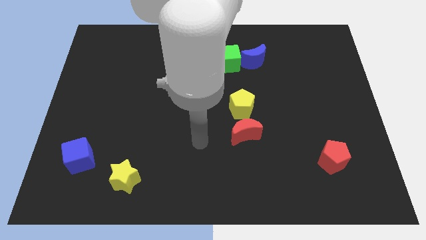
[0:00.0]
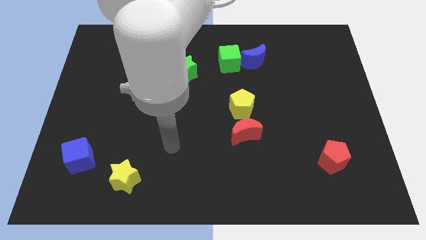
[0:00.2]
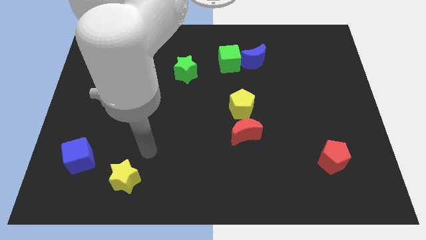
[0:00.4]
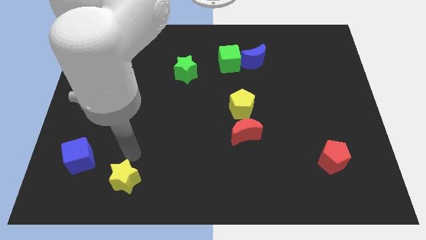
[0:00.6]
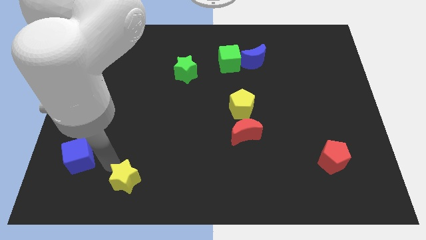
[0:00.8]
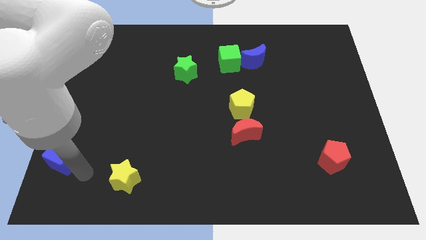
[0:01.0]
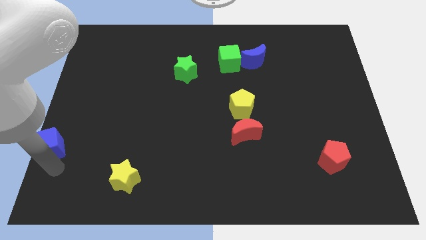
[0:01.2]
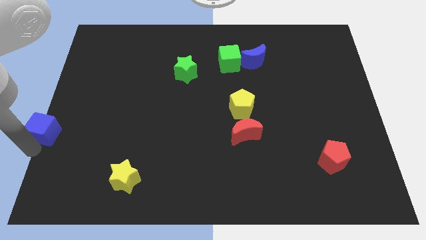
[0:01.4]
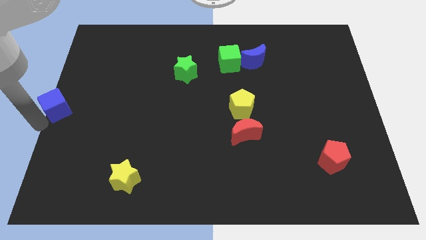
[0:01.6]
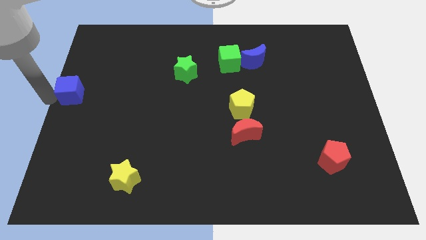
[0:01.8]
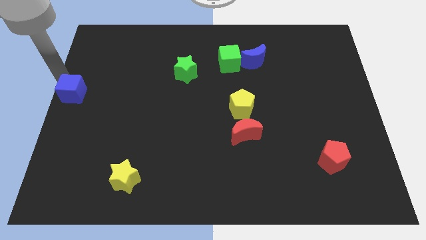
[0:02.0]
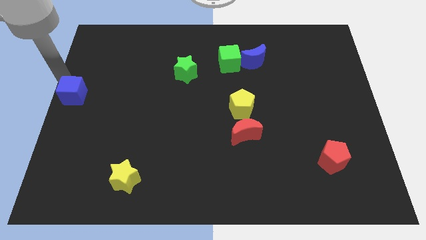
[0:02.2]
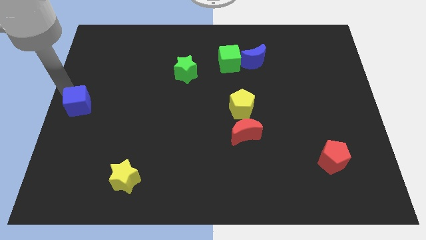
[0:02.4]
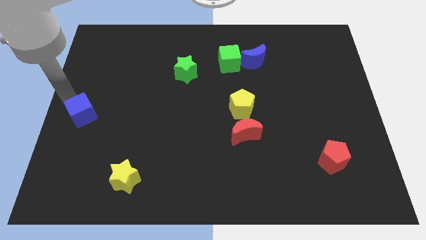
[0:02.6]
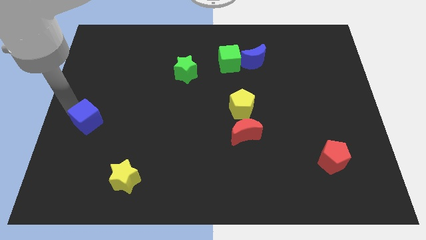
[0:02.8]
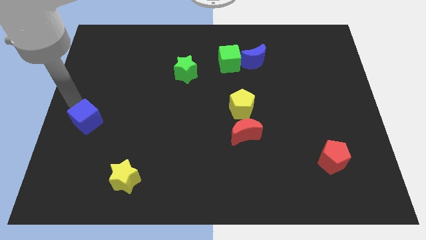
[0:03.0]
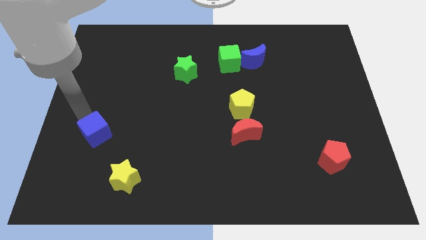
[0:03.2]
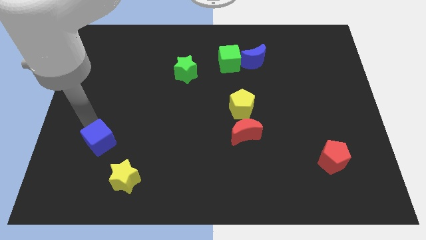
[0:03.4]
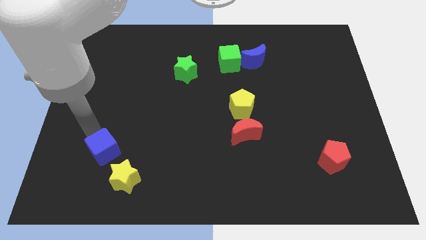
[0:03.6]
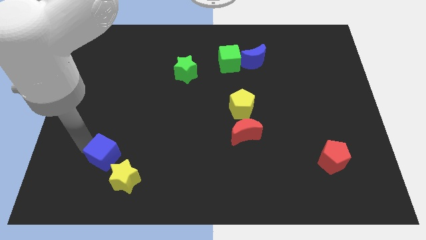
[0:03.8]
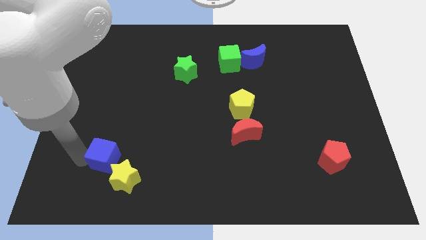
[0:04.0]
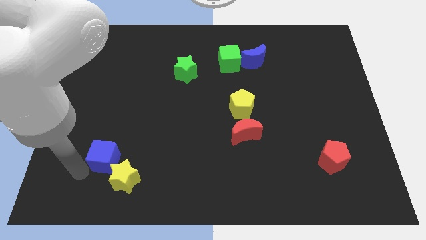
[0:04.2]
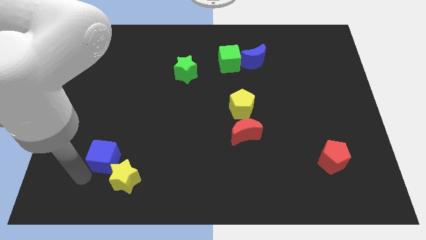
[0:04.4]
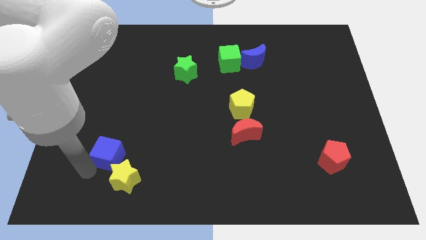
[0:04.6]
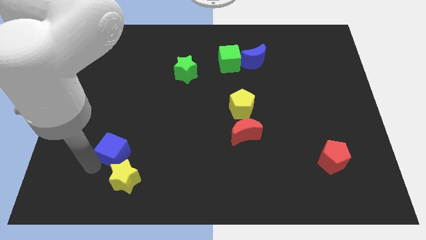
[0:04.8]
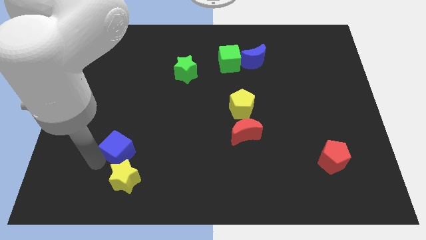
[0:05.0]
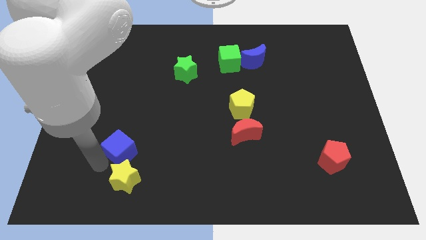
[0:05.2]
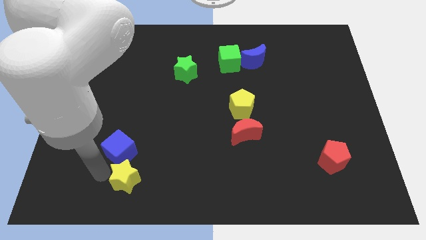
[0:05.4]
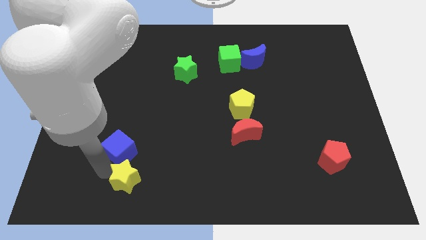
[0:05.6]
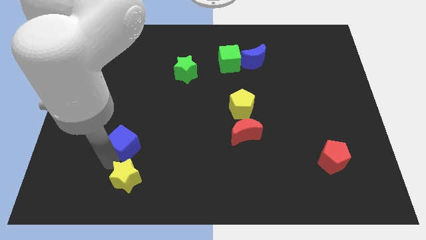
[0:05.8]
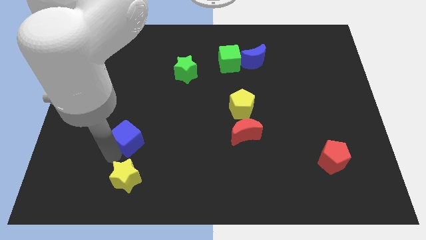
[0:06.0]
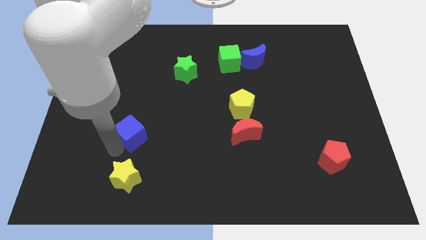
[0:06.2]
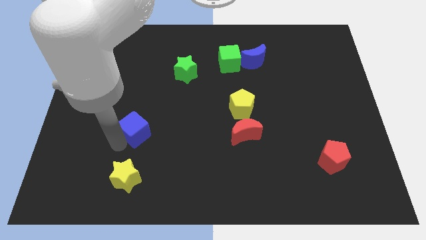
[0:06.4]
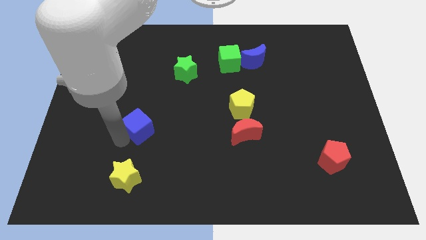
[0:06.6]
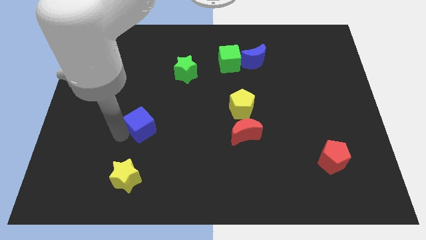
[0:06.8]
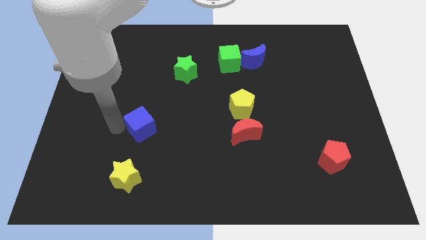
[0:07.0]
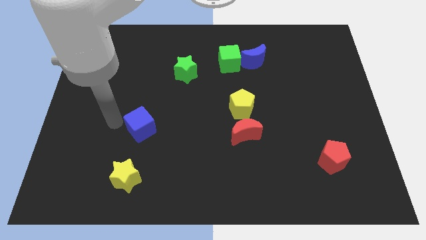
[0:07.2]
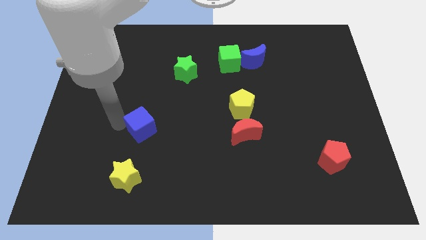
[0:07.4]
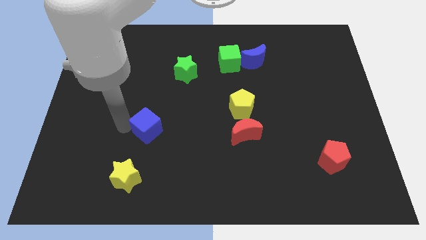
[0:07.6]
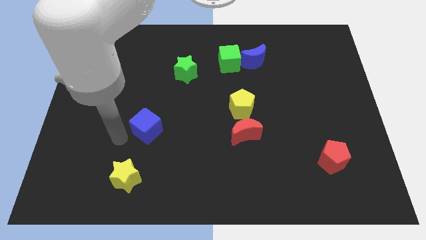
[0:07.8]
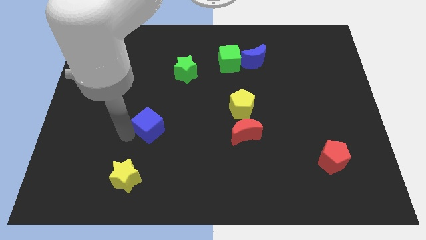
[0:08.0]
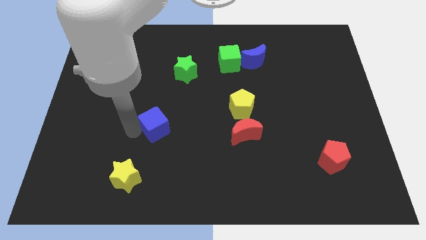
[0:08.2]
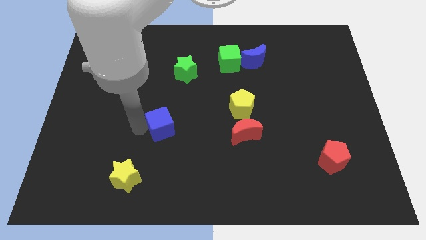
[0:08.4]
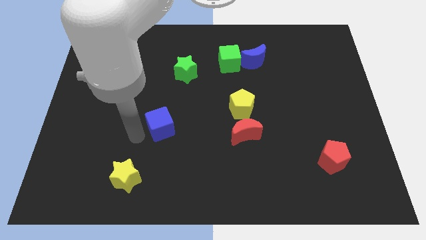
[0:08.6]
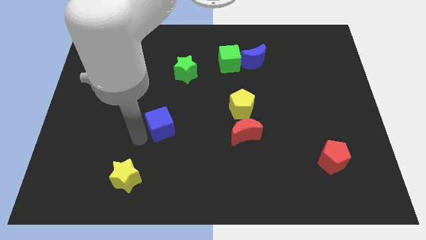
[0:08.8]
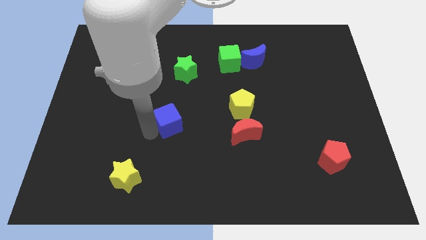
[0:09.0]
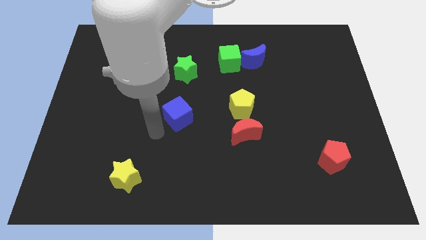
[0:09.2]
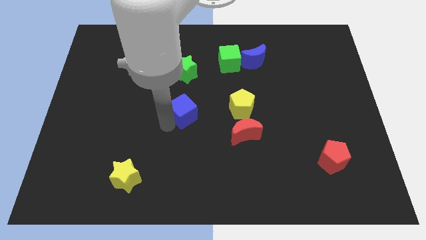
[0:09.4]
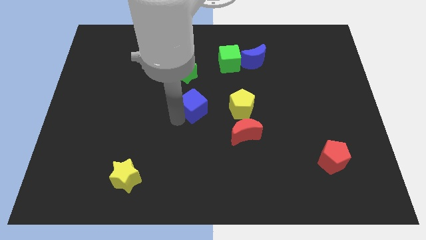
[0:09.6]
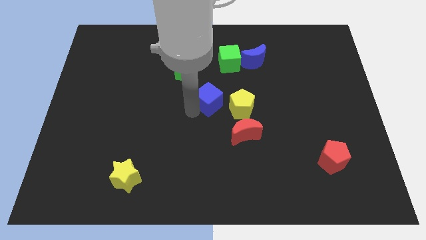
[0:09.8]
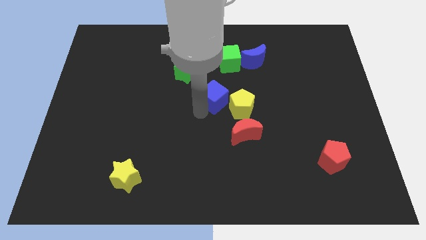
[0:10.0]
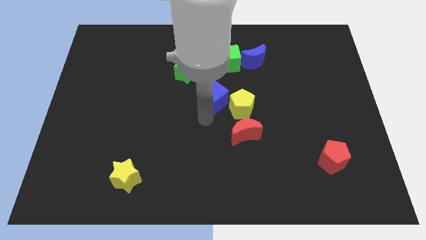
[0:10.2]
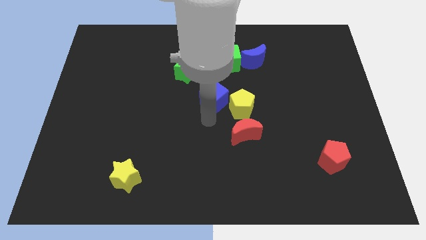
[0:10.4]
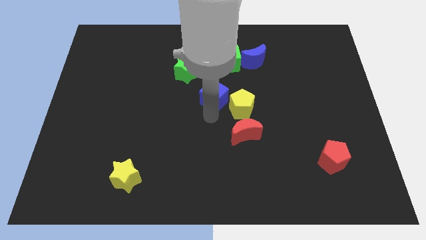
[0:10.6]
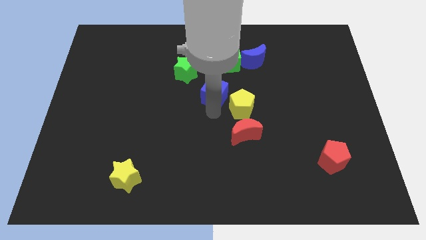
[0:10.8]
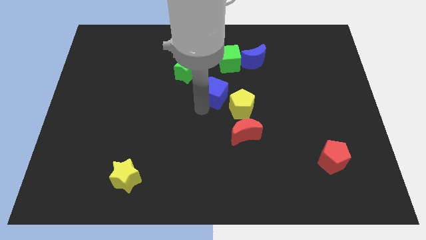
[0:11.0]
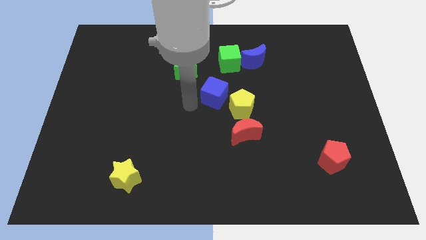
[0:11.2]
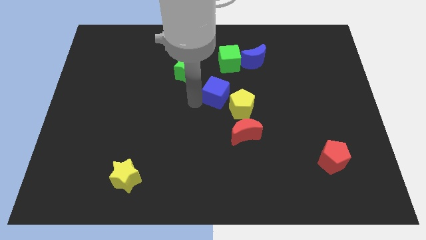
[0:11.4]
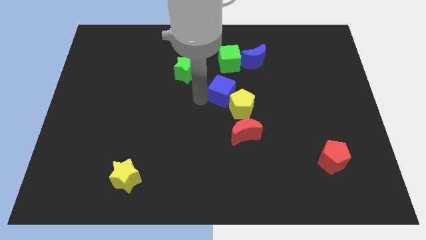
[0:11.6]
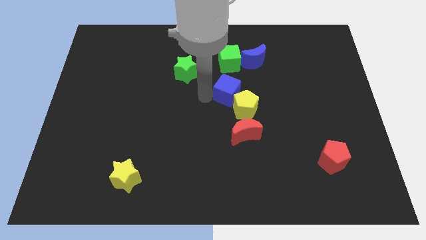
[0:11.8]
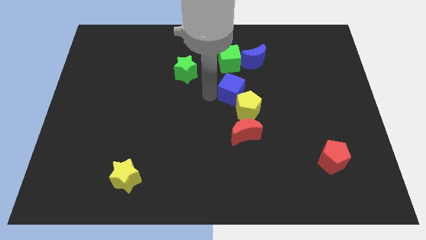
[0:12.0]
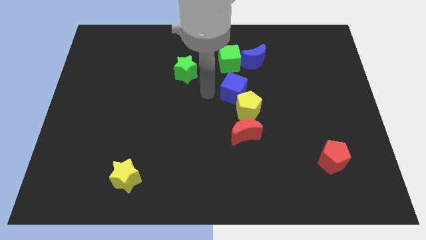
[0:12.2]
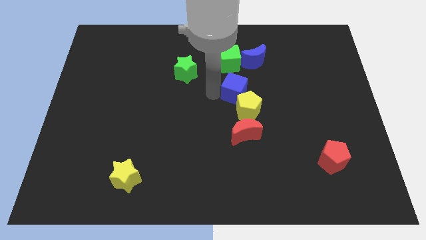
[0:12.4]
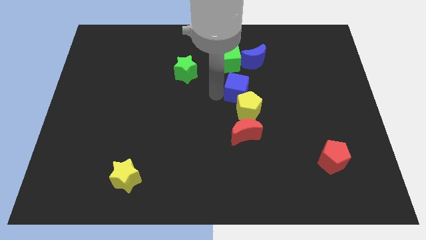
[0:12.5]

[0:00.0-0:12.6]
move the blue cube to the bottom side of the blue moon
